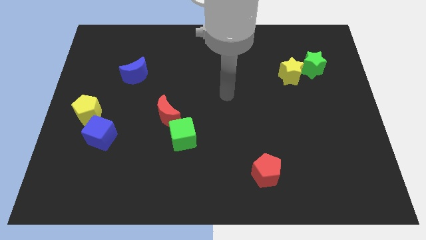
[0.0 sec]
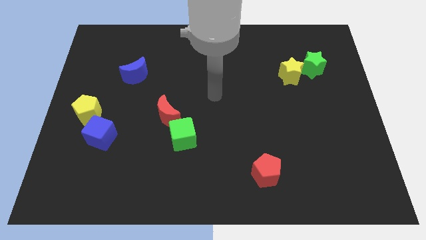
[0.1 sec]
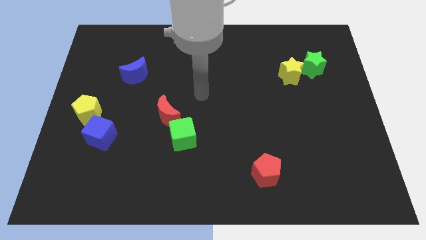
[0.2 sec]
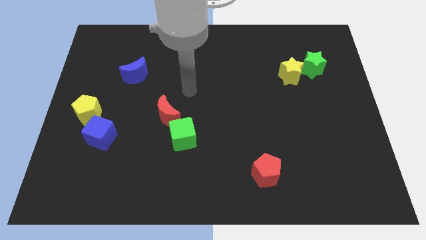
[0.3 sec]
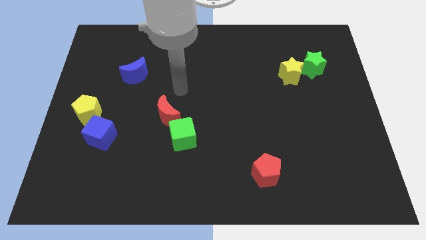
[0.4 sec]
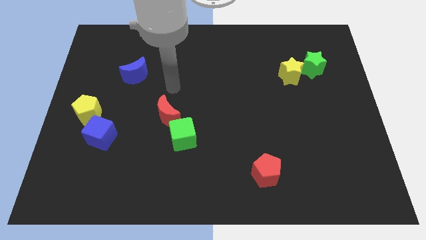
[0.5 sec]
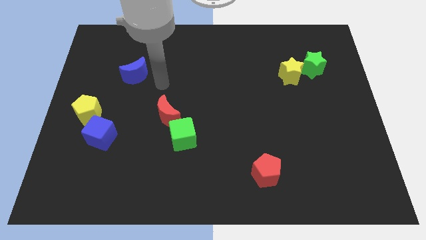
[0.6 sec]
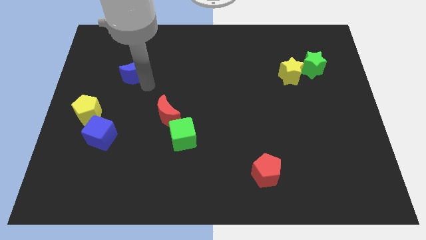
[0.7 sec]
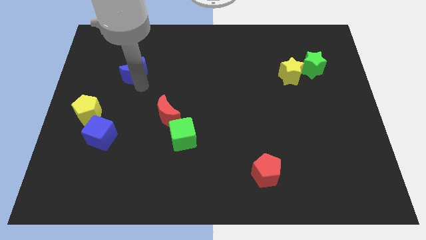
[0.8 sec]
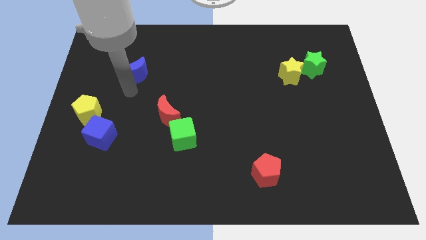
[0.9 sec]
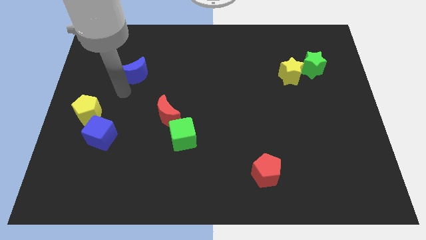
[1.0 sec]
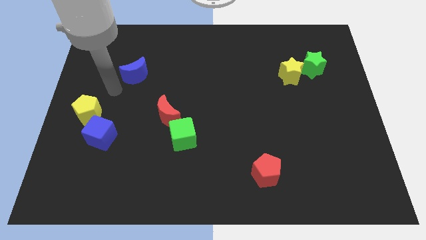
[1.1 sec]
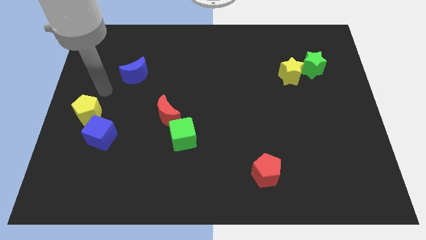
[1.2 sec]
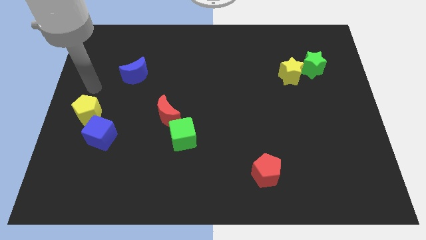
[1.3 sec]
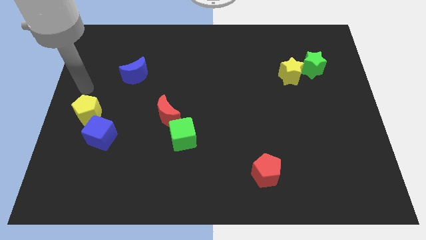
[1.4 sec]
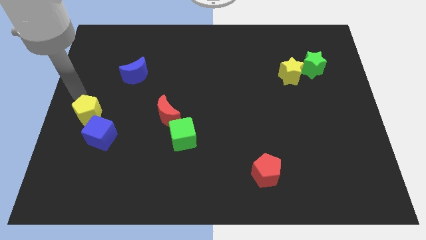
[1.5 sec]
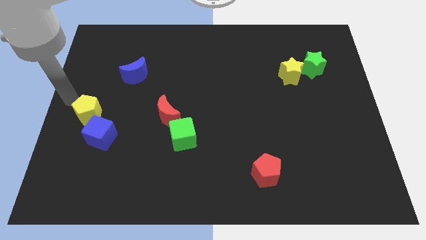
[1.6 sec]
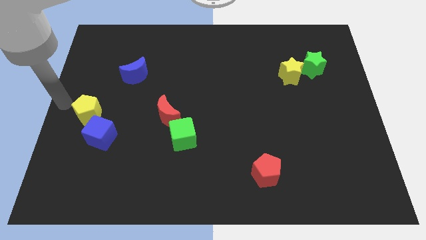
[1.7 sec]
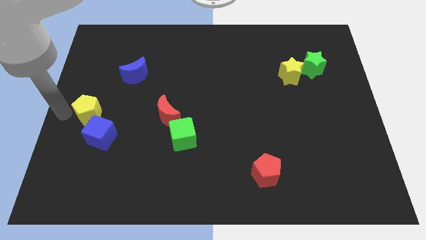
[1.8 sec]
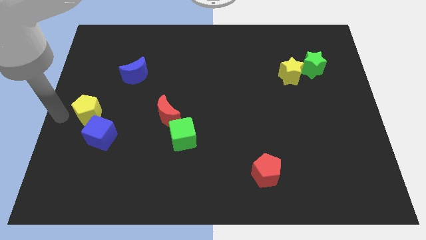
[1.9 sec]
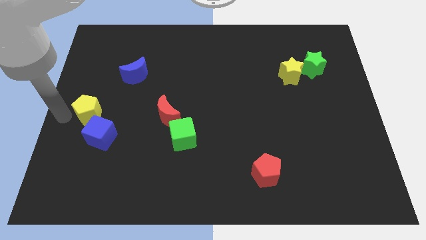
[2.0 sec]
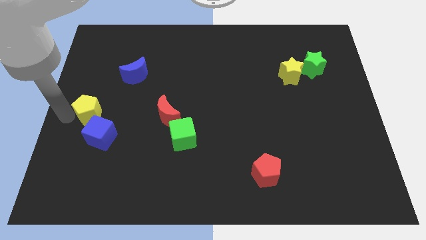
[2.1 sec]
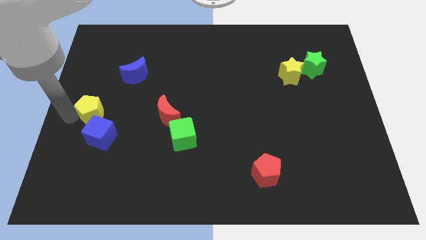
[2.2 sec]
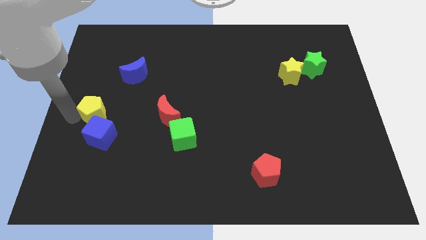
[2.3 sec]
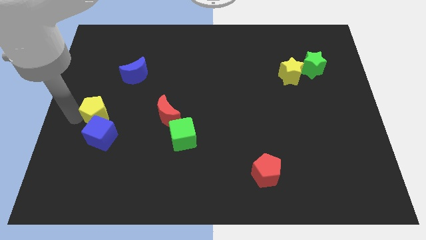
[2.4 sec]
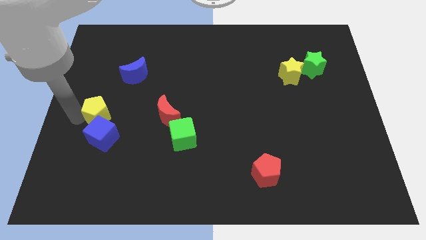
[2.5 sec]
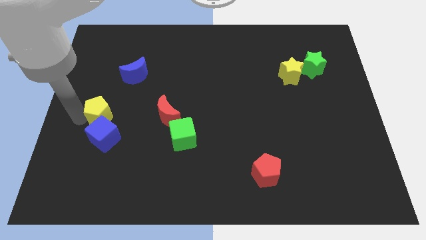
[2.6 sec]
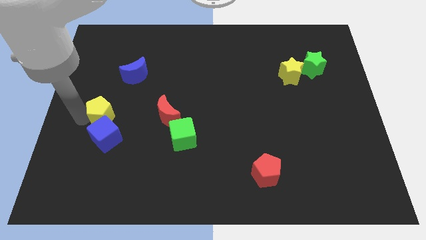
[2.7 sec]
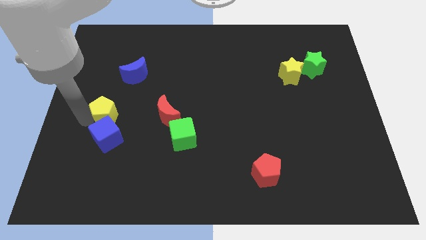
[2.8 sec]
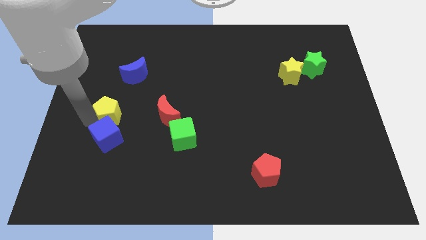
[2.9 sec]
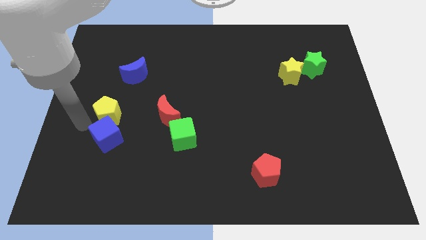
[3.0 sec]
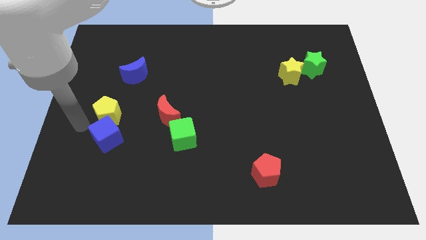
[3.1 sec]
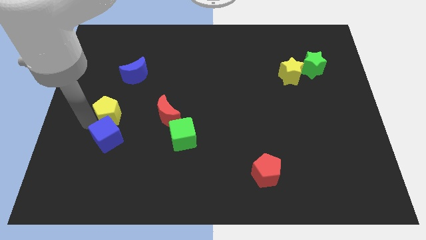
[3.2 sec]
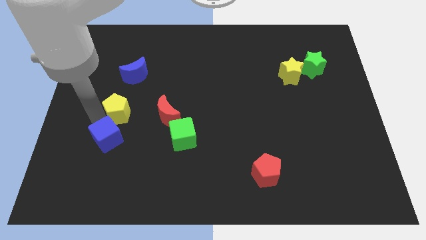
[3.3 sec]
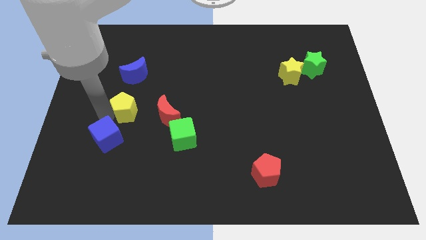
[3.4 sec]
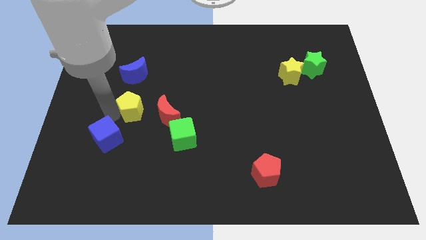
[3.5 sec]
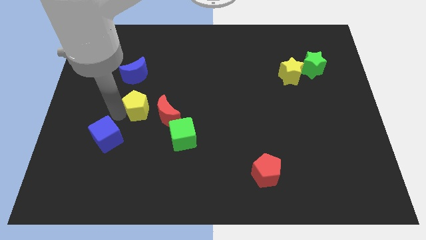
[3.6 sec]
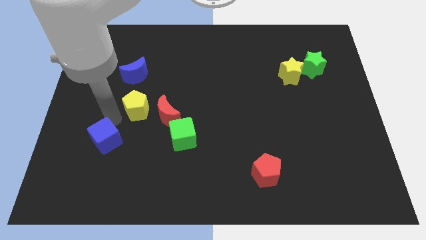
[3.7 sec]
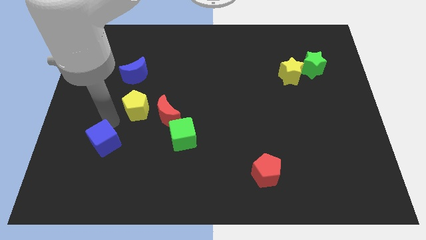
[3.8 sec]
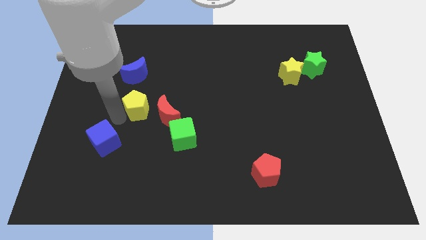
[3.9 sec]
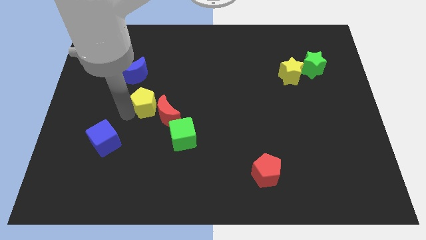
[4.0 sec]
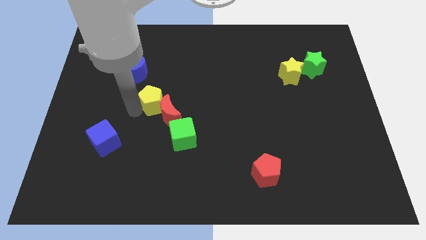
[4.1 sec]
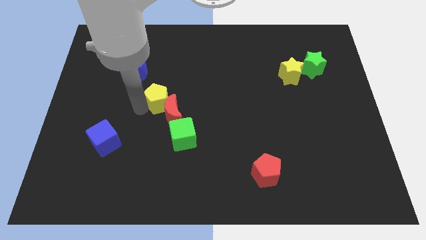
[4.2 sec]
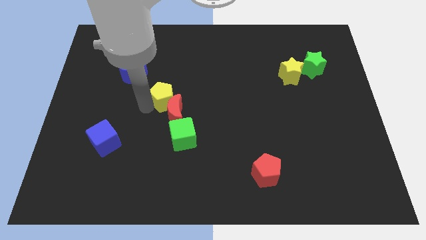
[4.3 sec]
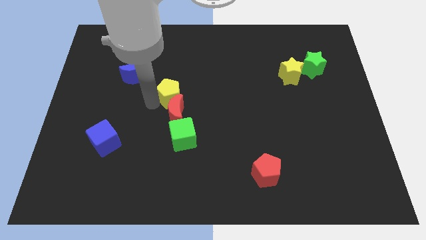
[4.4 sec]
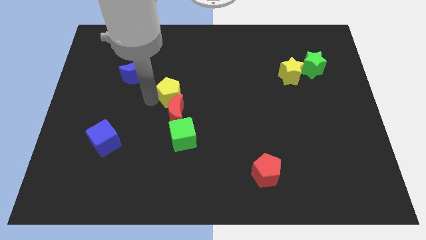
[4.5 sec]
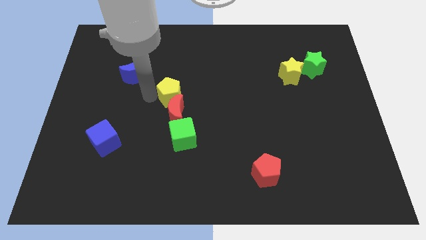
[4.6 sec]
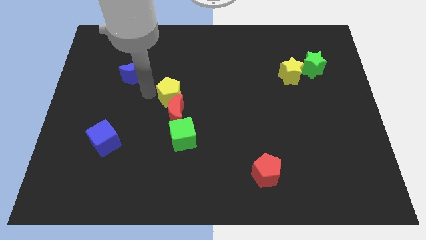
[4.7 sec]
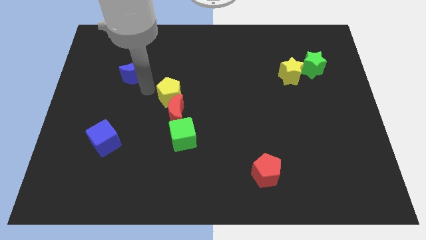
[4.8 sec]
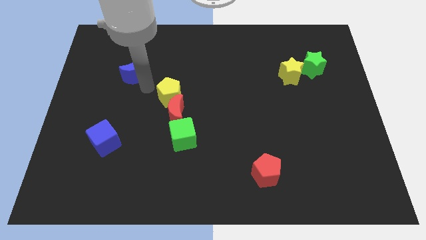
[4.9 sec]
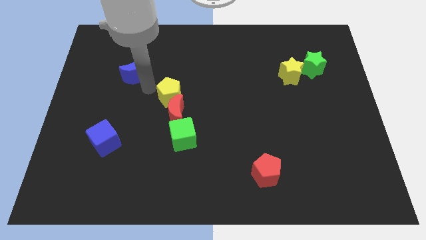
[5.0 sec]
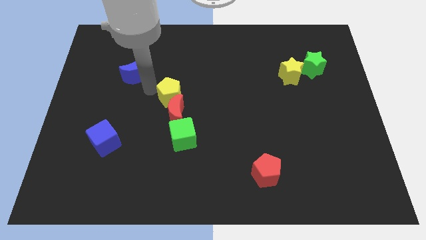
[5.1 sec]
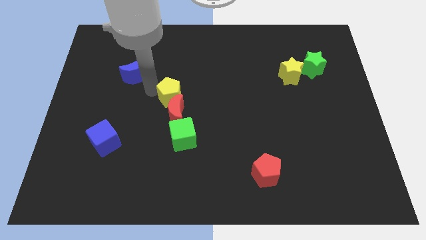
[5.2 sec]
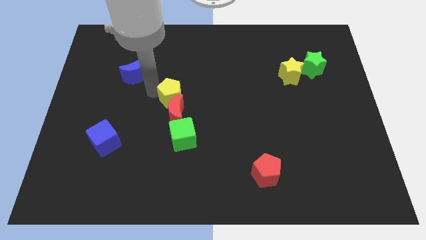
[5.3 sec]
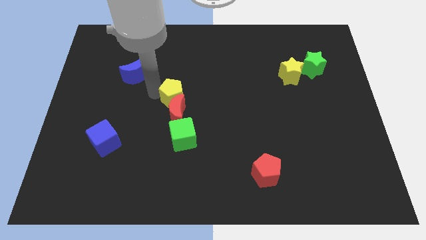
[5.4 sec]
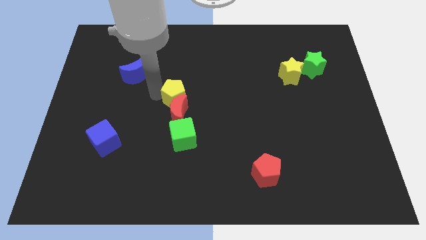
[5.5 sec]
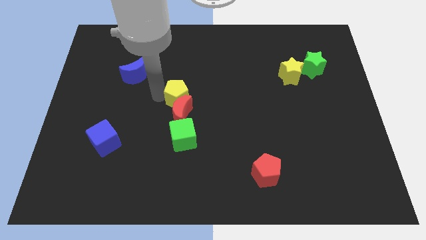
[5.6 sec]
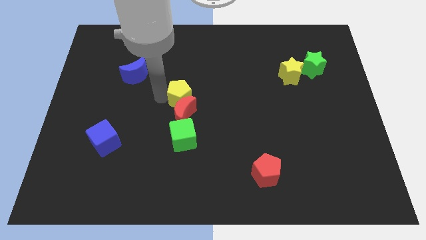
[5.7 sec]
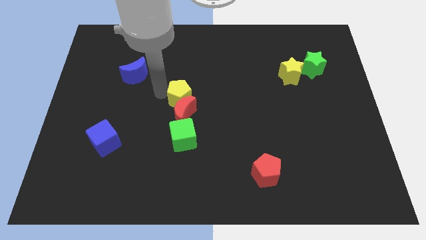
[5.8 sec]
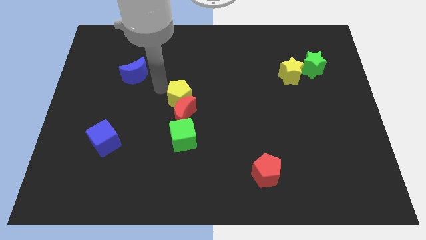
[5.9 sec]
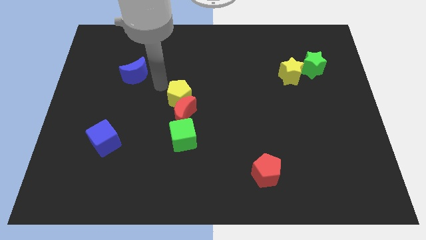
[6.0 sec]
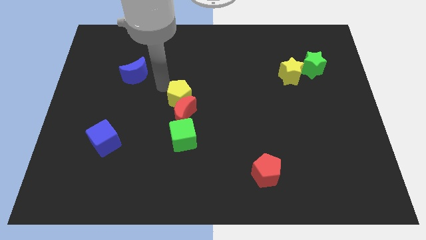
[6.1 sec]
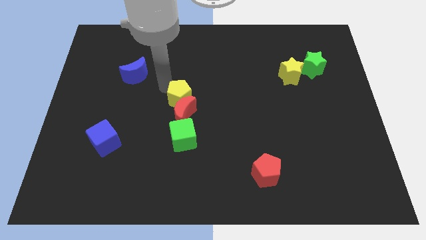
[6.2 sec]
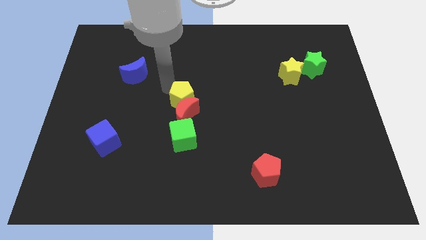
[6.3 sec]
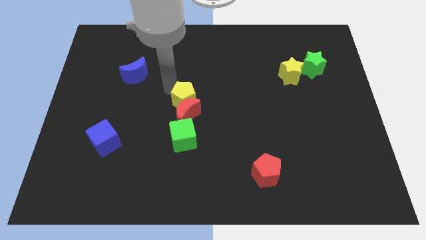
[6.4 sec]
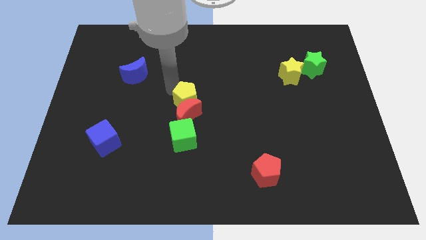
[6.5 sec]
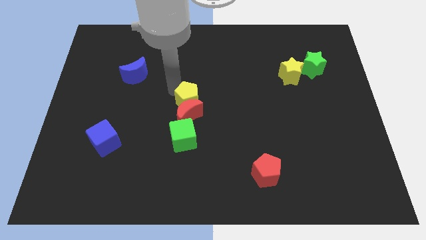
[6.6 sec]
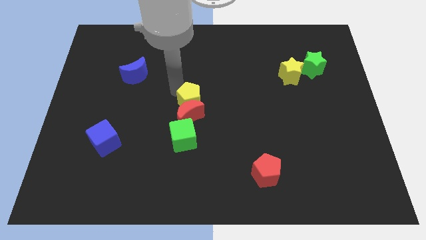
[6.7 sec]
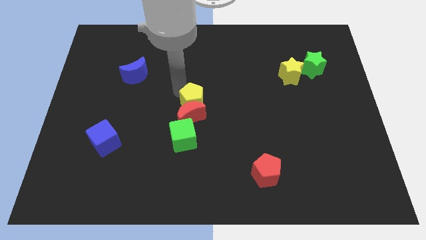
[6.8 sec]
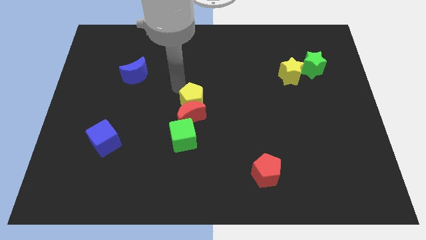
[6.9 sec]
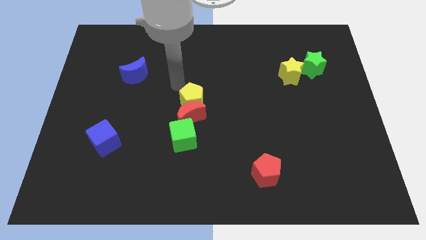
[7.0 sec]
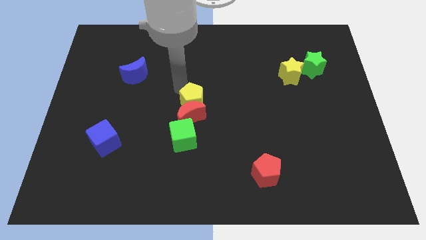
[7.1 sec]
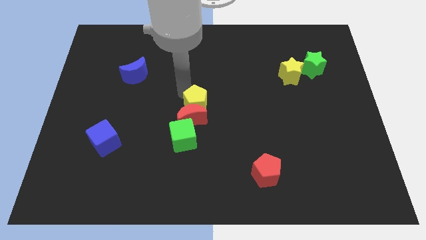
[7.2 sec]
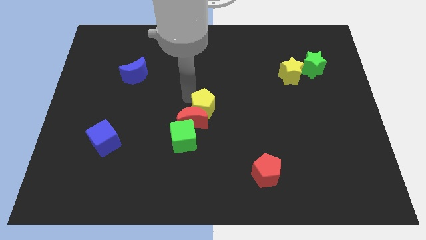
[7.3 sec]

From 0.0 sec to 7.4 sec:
put the yellow pentagon to the top right side of the green cube
